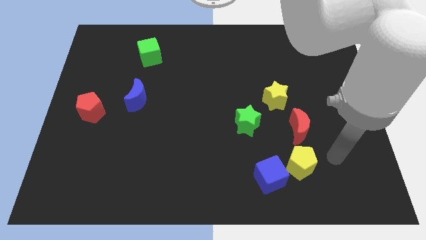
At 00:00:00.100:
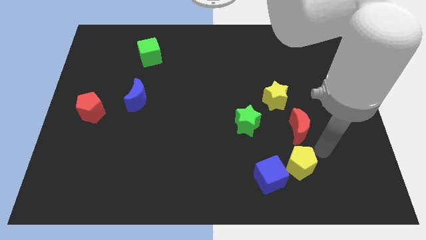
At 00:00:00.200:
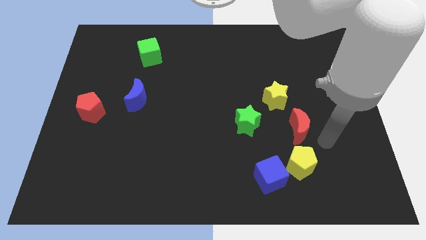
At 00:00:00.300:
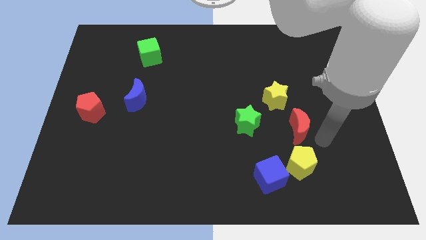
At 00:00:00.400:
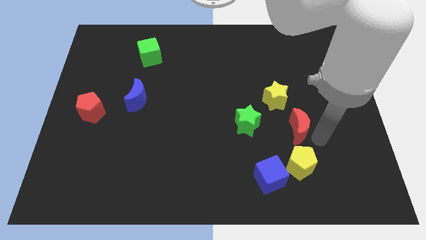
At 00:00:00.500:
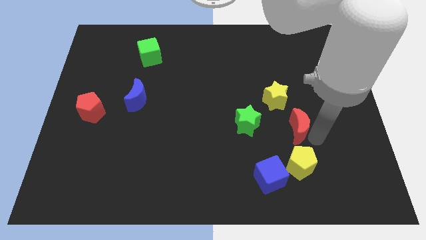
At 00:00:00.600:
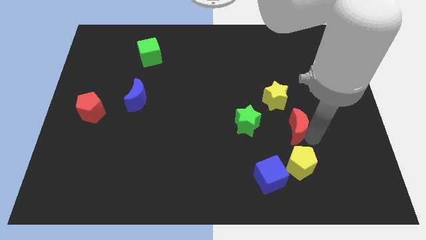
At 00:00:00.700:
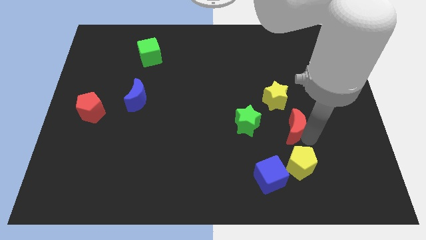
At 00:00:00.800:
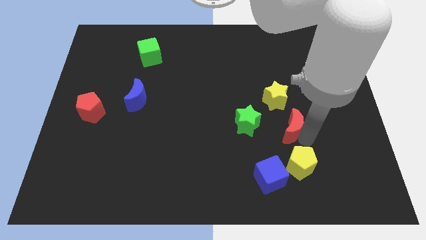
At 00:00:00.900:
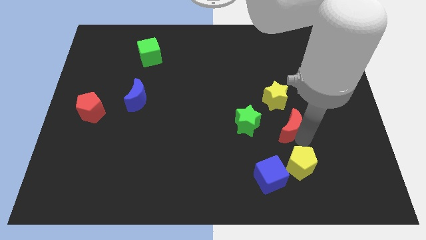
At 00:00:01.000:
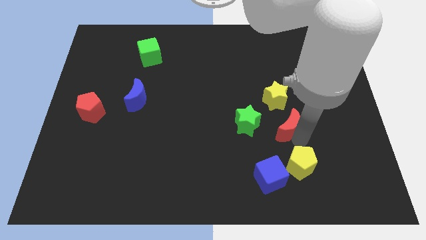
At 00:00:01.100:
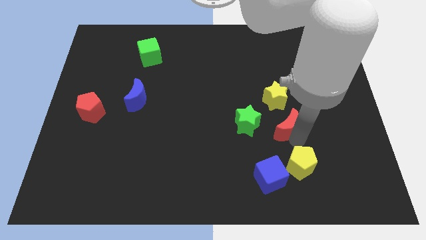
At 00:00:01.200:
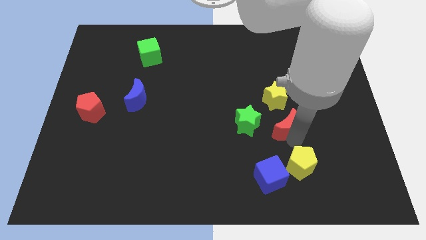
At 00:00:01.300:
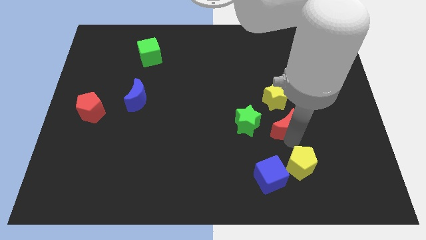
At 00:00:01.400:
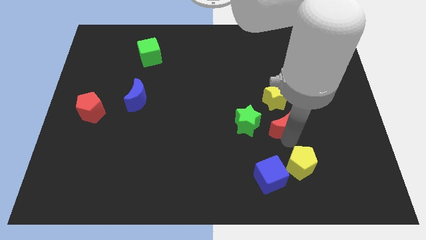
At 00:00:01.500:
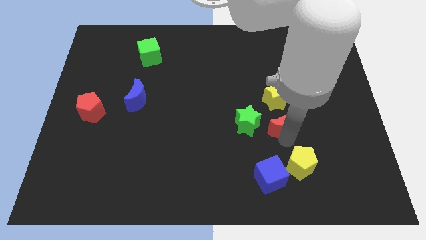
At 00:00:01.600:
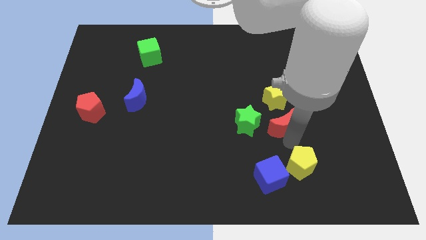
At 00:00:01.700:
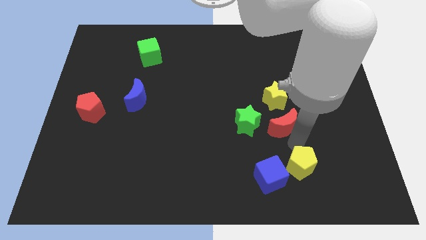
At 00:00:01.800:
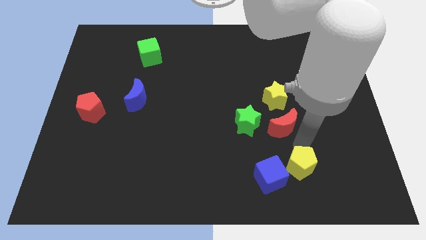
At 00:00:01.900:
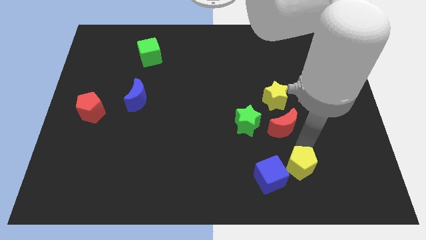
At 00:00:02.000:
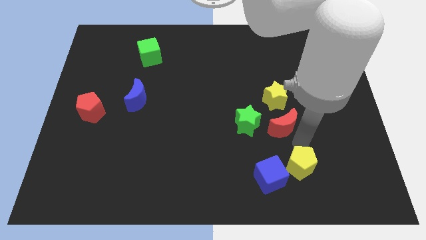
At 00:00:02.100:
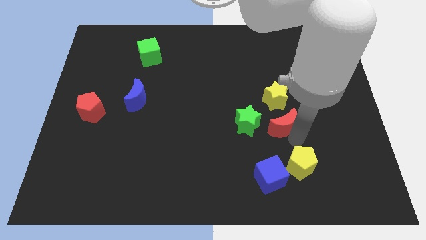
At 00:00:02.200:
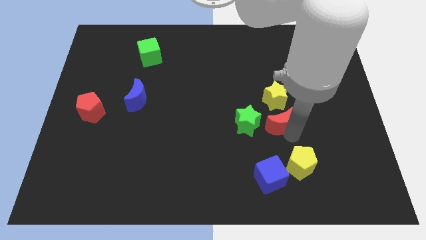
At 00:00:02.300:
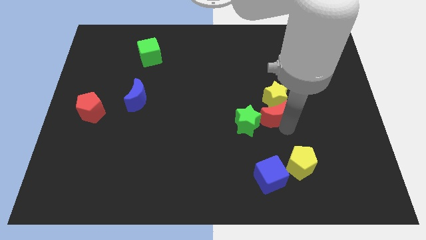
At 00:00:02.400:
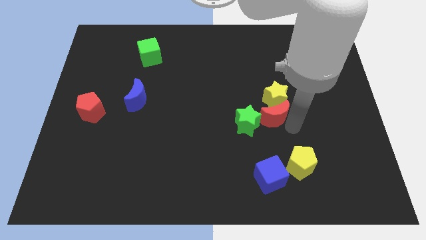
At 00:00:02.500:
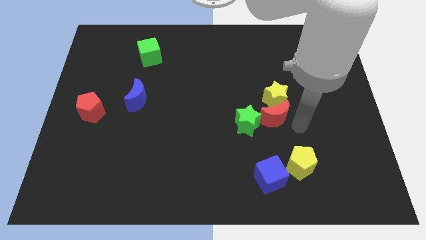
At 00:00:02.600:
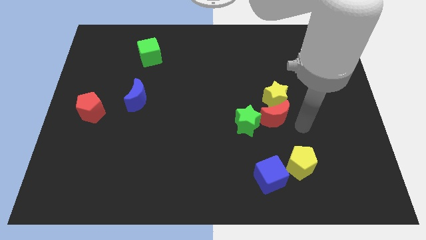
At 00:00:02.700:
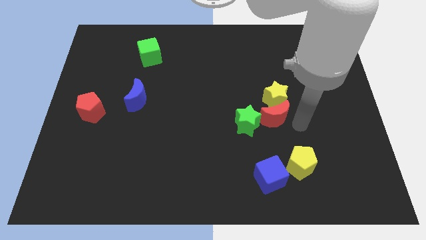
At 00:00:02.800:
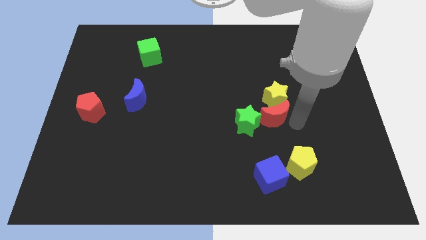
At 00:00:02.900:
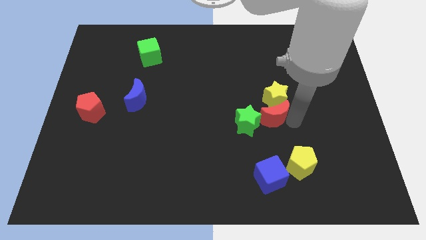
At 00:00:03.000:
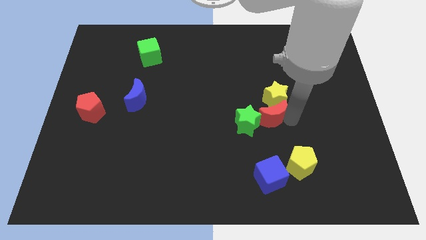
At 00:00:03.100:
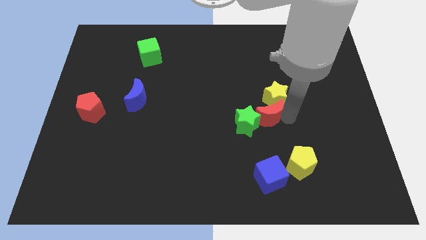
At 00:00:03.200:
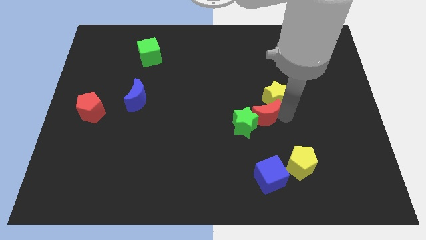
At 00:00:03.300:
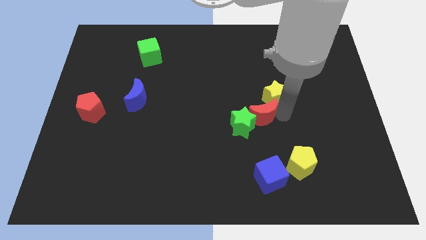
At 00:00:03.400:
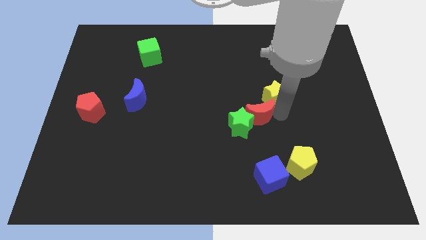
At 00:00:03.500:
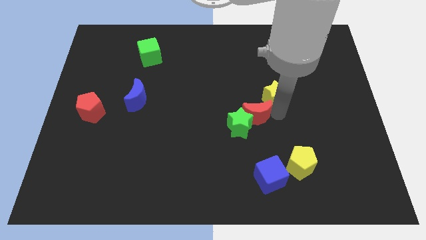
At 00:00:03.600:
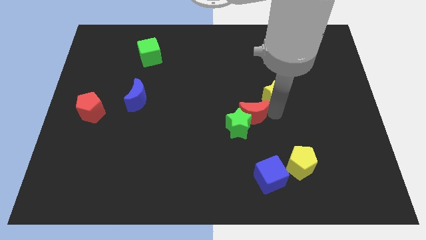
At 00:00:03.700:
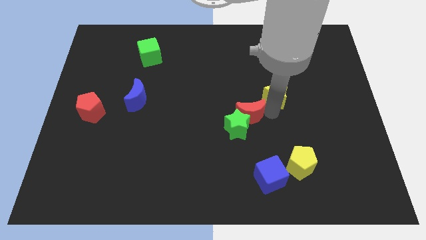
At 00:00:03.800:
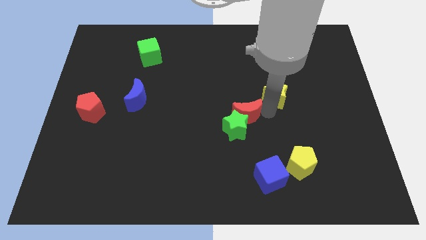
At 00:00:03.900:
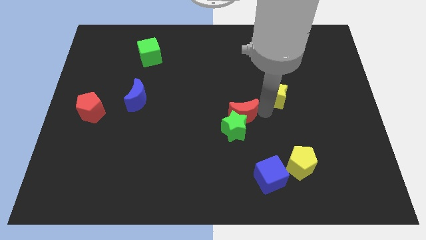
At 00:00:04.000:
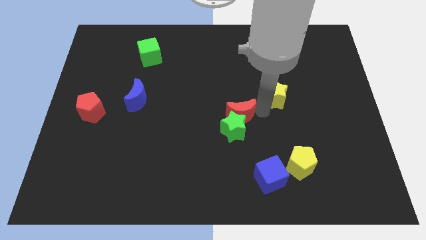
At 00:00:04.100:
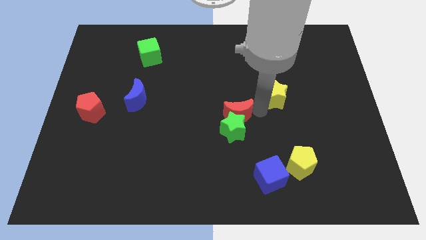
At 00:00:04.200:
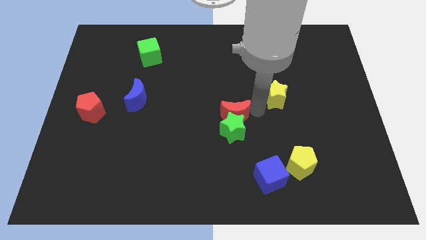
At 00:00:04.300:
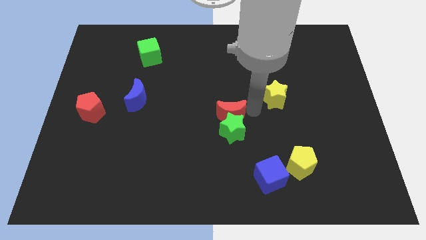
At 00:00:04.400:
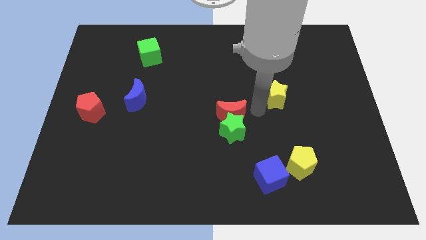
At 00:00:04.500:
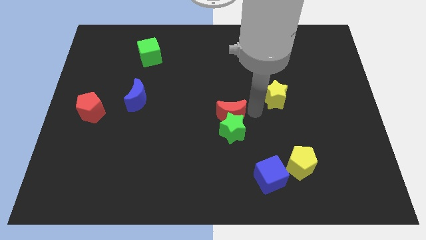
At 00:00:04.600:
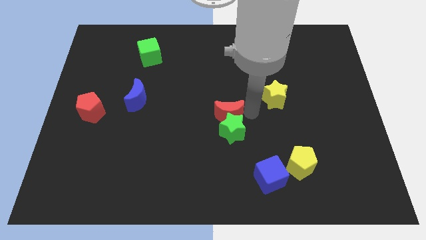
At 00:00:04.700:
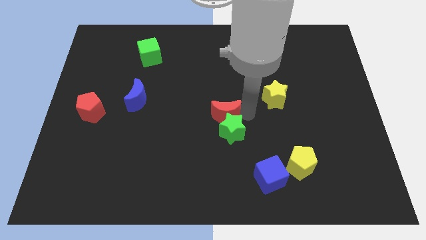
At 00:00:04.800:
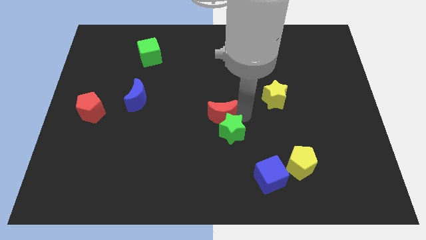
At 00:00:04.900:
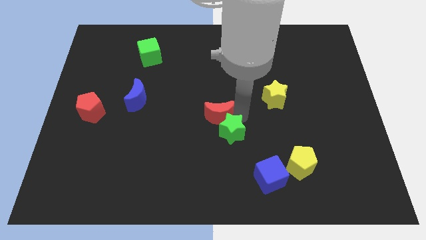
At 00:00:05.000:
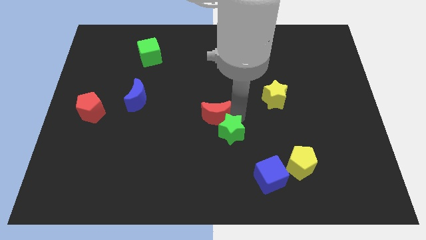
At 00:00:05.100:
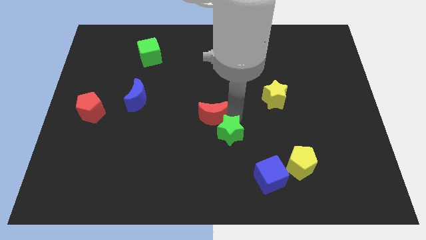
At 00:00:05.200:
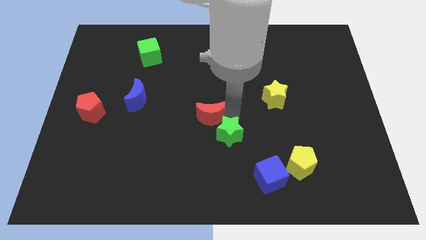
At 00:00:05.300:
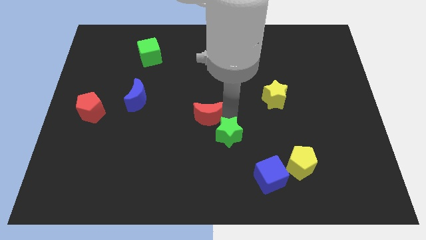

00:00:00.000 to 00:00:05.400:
push the red moon left

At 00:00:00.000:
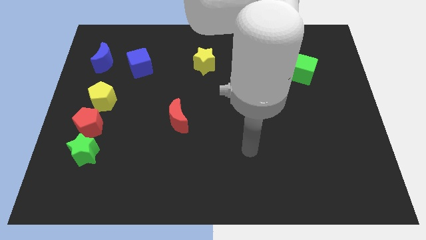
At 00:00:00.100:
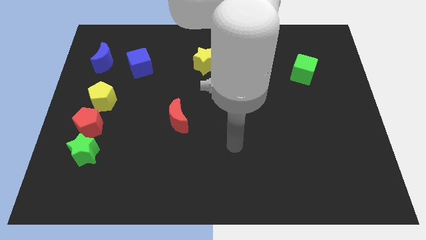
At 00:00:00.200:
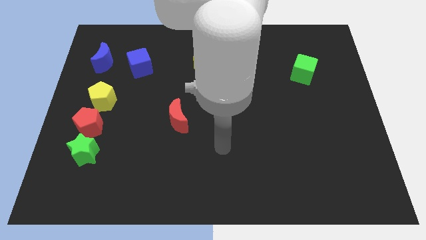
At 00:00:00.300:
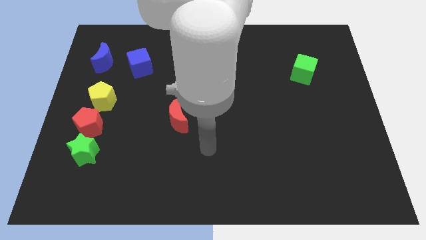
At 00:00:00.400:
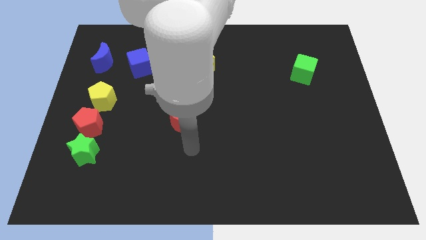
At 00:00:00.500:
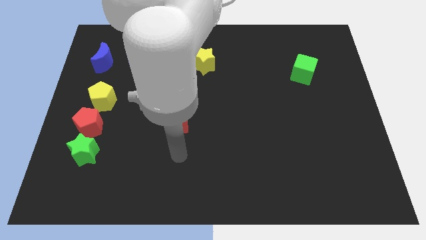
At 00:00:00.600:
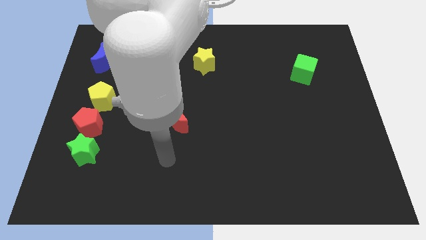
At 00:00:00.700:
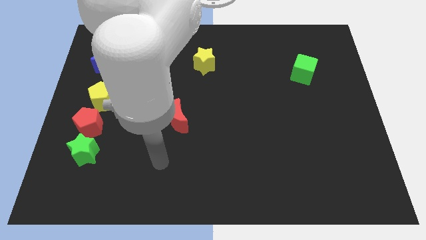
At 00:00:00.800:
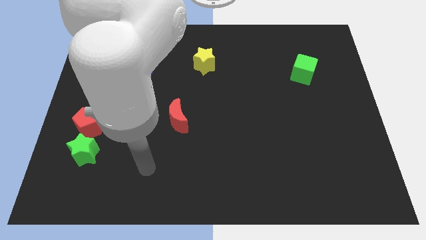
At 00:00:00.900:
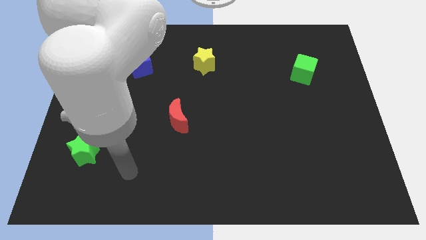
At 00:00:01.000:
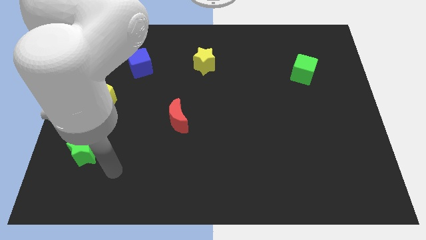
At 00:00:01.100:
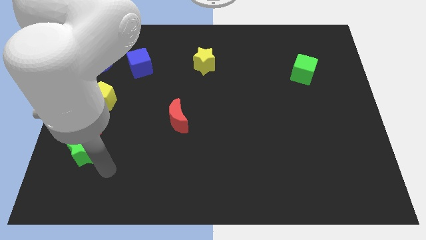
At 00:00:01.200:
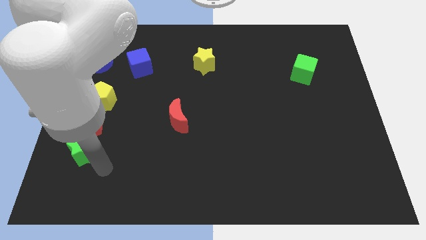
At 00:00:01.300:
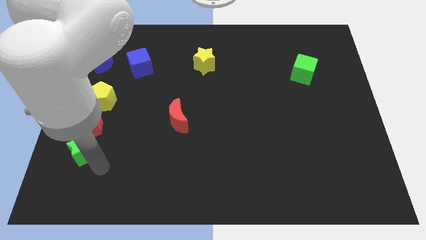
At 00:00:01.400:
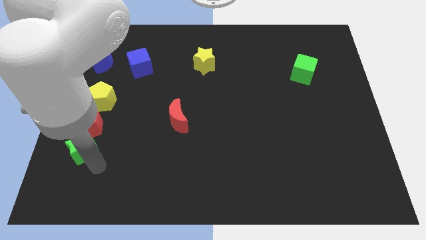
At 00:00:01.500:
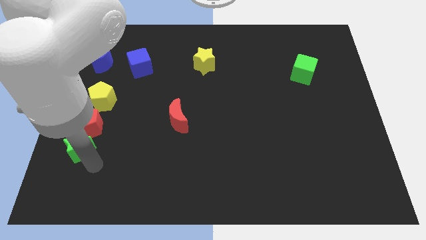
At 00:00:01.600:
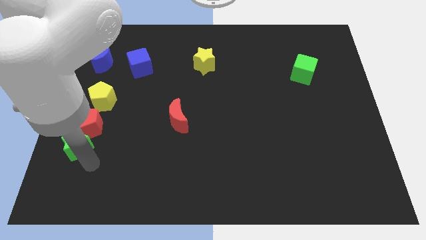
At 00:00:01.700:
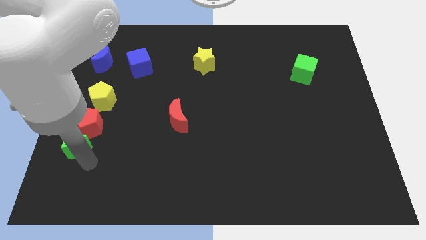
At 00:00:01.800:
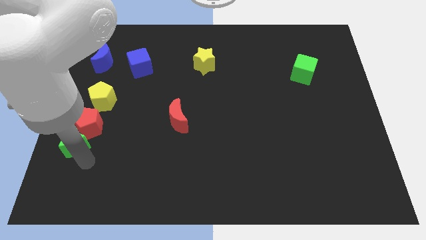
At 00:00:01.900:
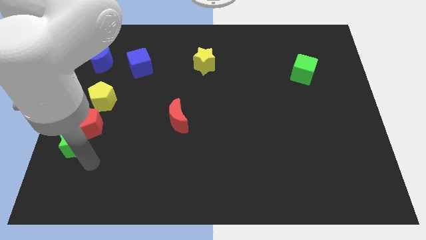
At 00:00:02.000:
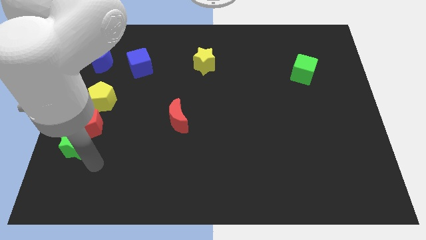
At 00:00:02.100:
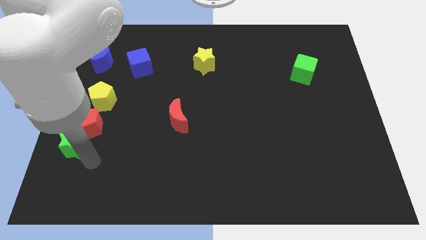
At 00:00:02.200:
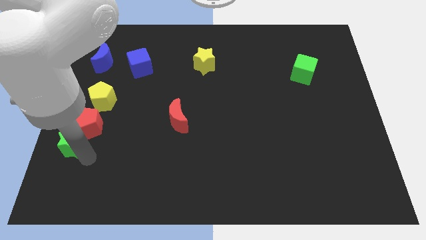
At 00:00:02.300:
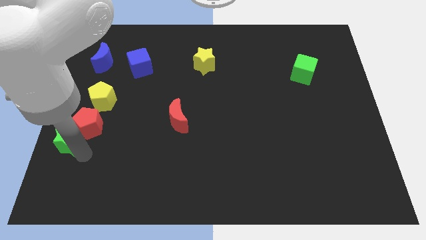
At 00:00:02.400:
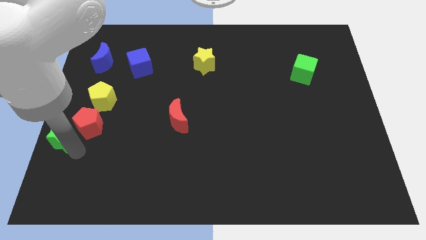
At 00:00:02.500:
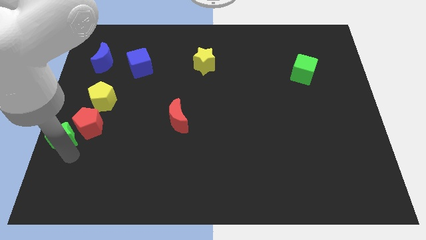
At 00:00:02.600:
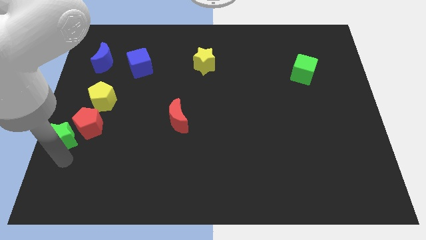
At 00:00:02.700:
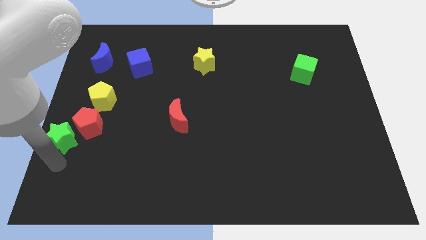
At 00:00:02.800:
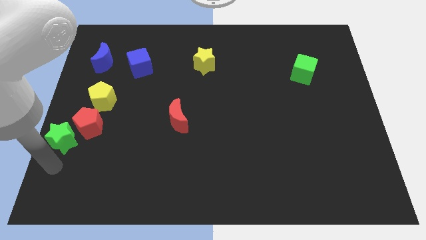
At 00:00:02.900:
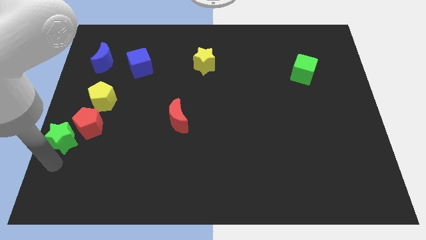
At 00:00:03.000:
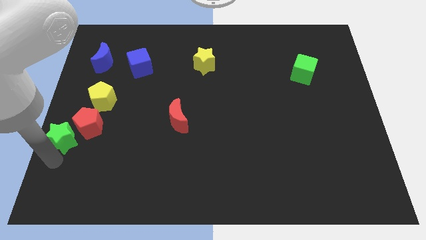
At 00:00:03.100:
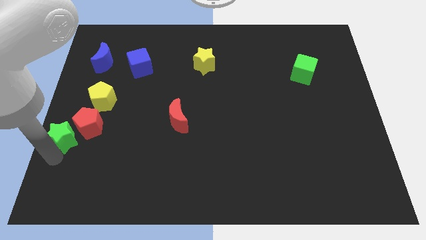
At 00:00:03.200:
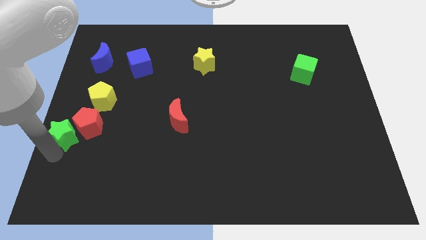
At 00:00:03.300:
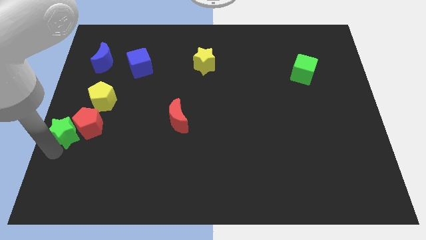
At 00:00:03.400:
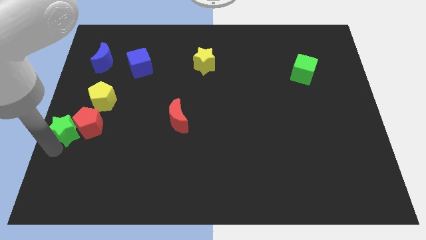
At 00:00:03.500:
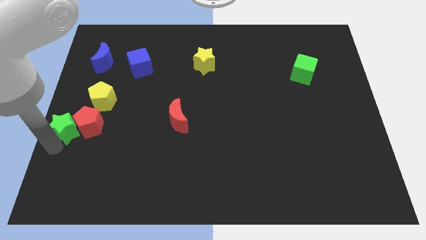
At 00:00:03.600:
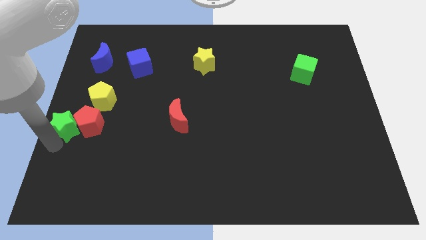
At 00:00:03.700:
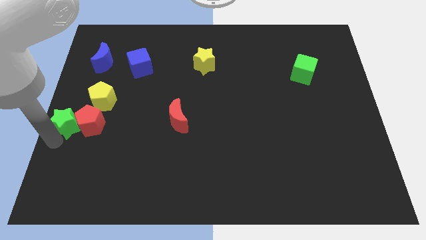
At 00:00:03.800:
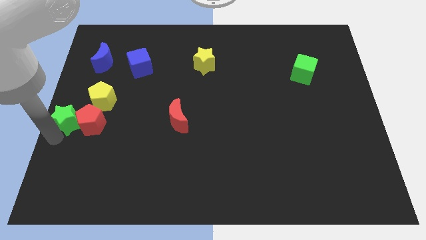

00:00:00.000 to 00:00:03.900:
slightly push the green star upwards
